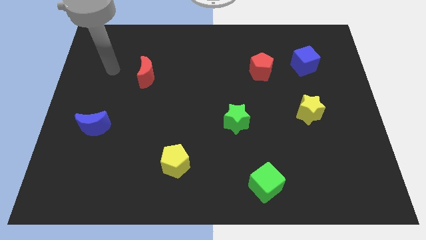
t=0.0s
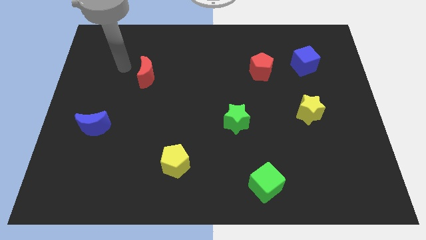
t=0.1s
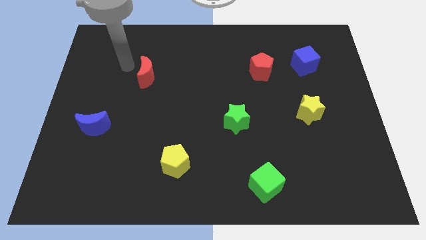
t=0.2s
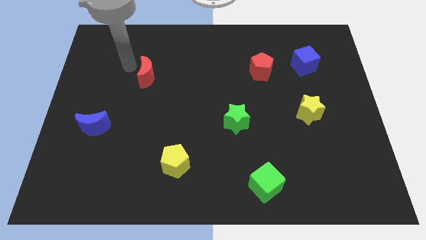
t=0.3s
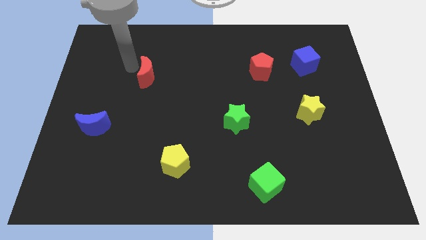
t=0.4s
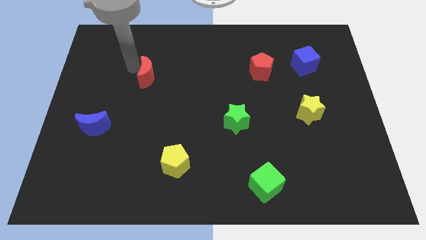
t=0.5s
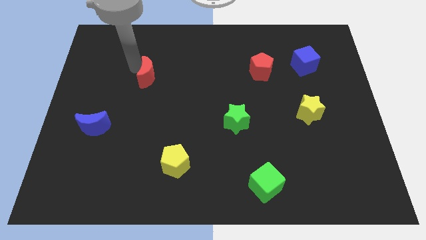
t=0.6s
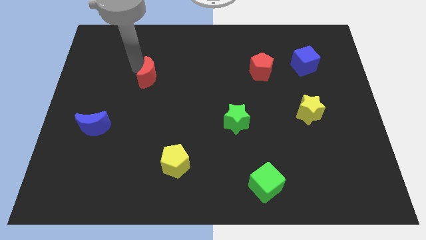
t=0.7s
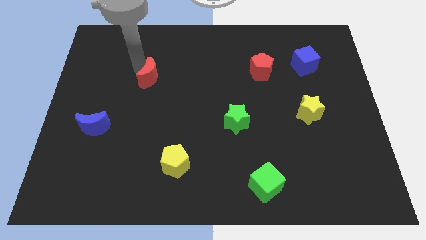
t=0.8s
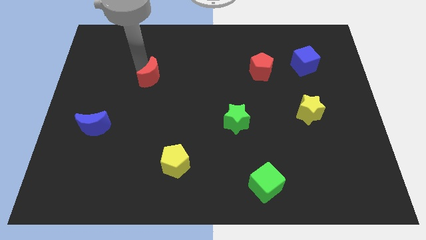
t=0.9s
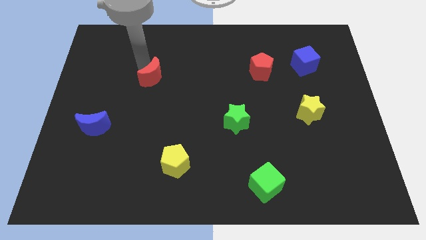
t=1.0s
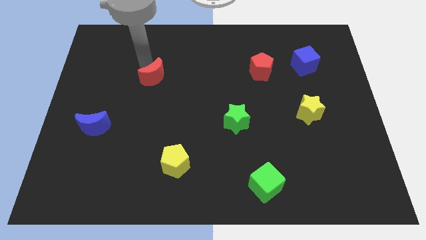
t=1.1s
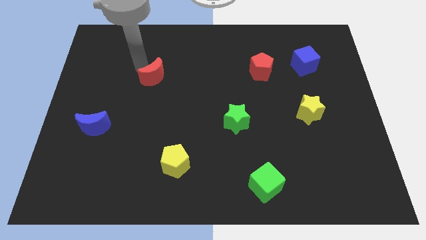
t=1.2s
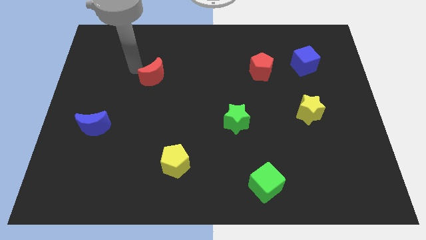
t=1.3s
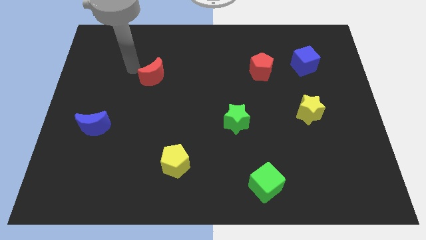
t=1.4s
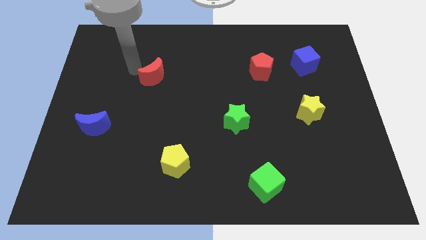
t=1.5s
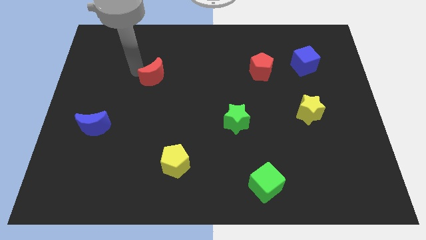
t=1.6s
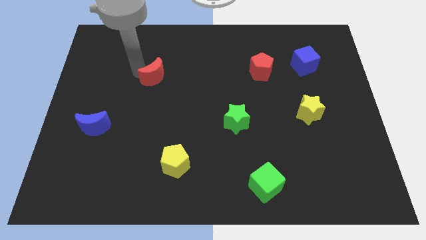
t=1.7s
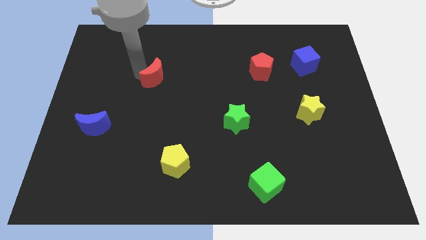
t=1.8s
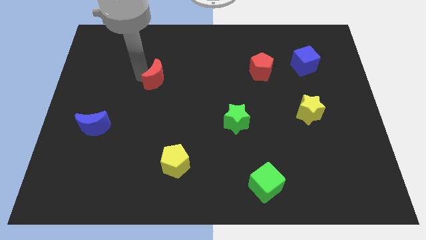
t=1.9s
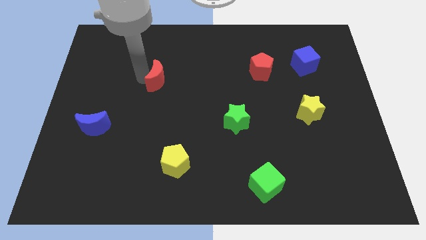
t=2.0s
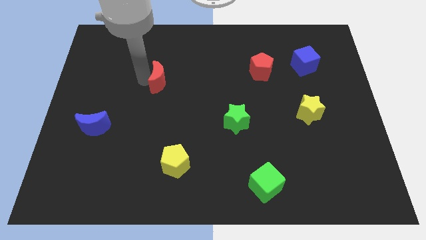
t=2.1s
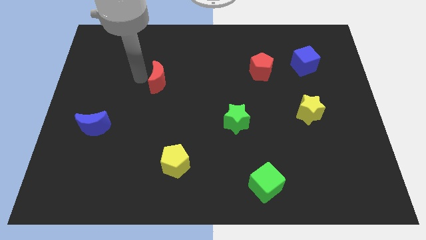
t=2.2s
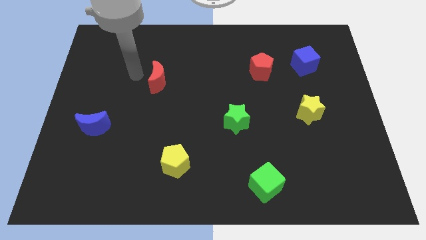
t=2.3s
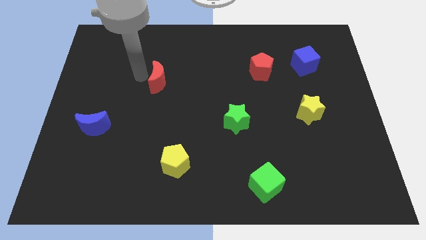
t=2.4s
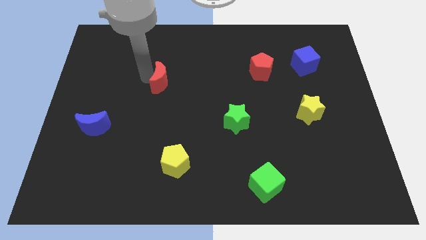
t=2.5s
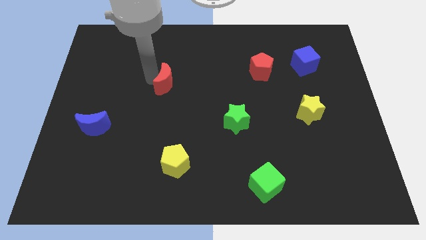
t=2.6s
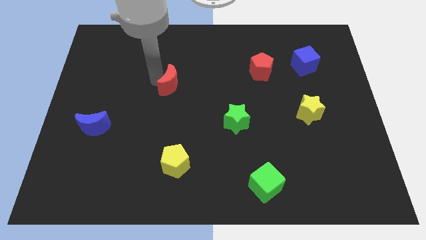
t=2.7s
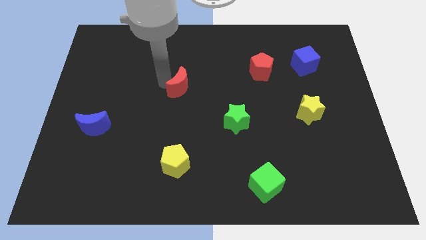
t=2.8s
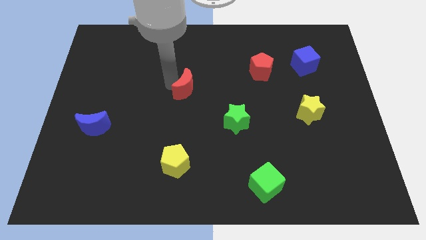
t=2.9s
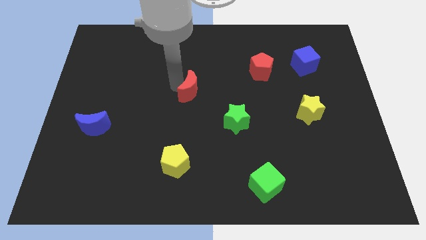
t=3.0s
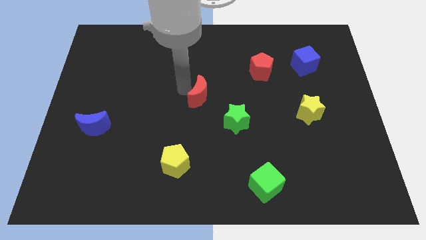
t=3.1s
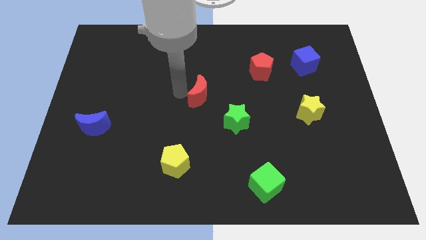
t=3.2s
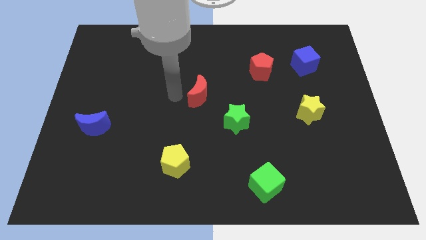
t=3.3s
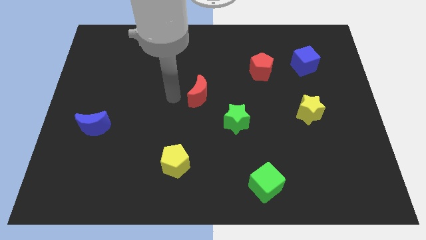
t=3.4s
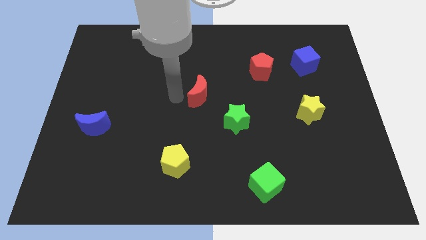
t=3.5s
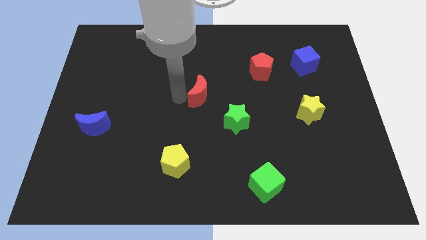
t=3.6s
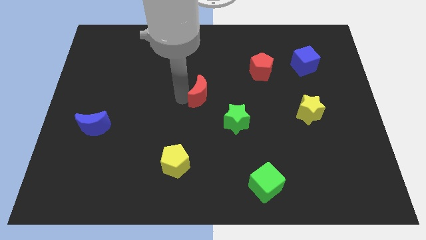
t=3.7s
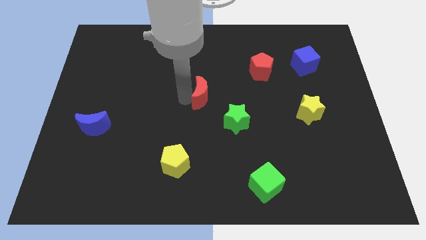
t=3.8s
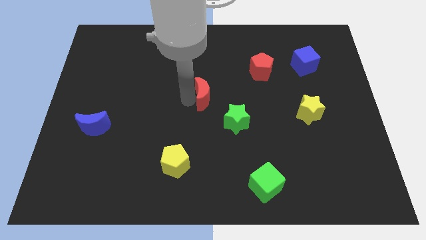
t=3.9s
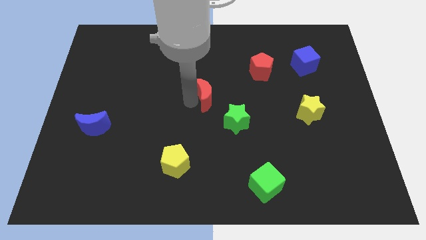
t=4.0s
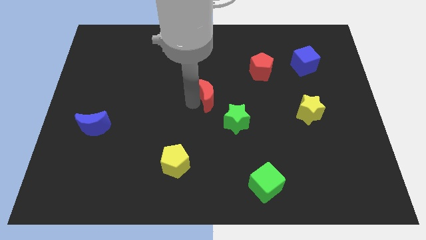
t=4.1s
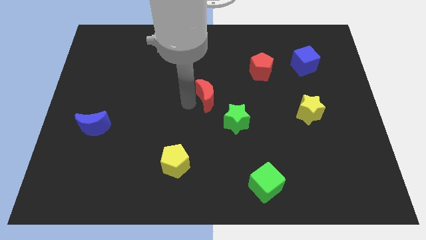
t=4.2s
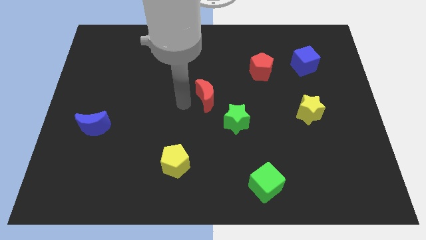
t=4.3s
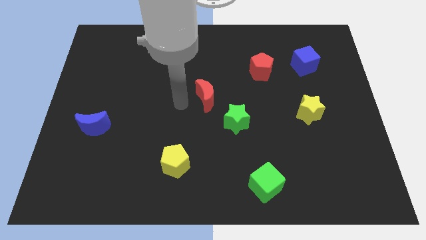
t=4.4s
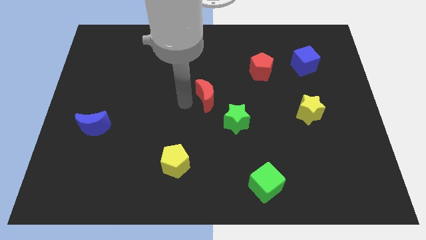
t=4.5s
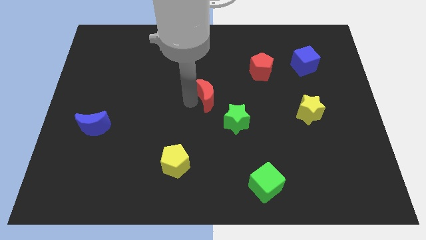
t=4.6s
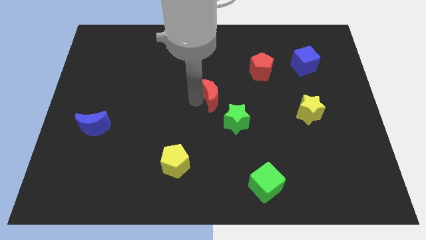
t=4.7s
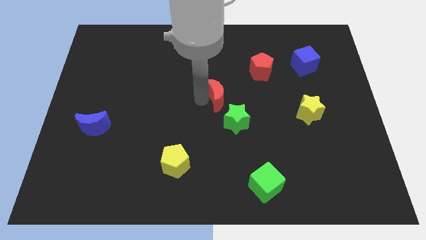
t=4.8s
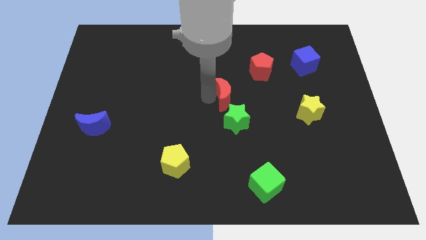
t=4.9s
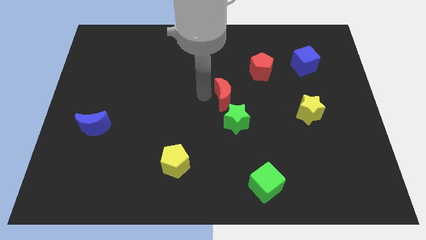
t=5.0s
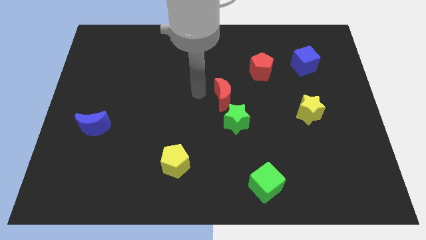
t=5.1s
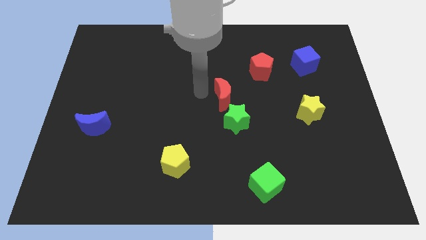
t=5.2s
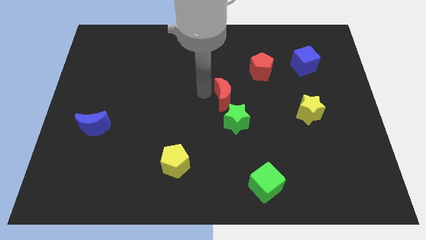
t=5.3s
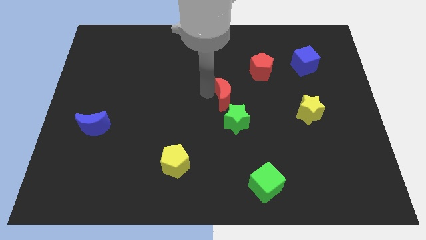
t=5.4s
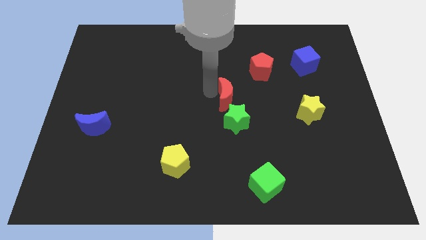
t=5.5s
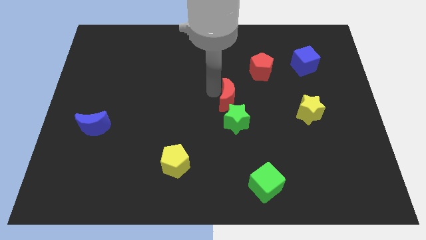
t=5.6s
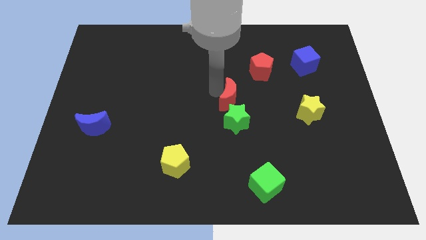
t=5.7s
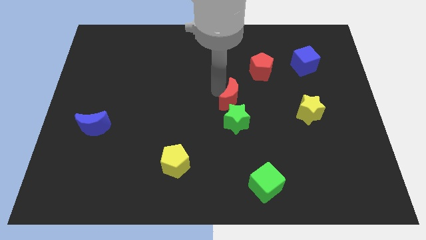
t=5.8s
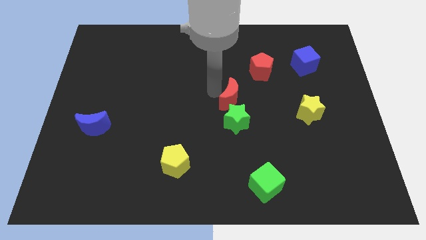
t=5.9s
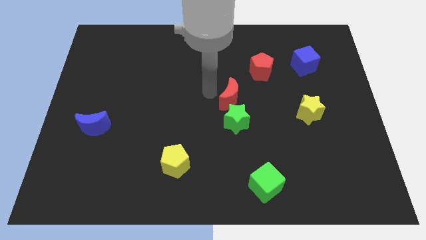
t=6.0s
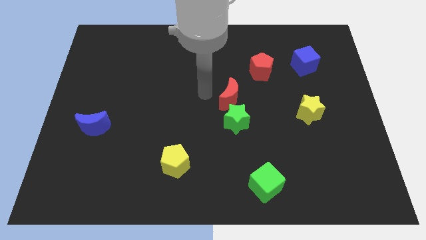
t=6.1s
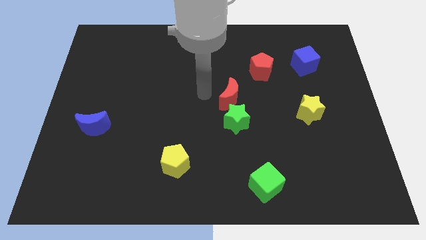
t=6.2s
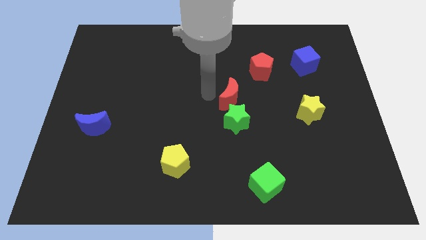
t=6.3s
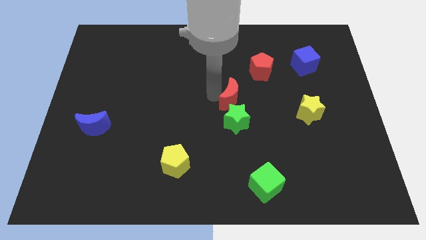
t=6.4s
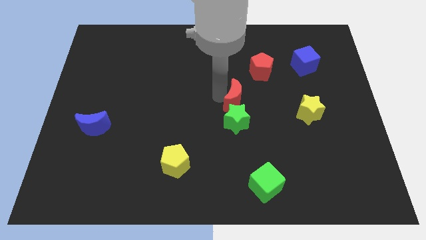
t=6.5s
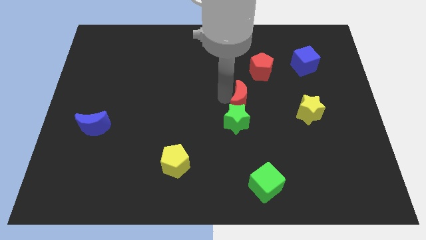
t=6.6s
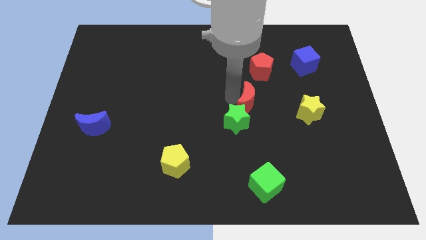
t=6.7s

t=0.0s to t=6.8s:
push the red moon just left of the yellow star
